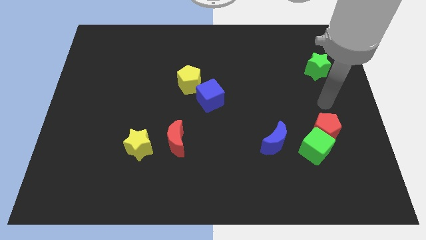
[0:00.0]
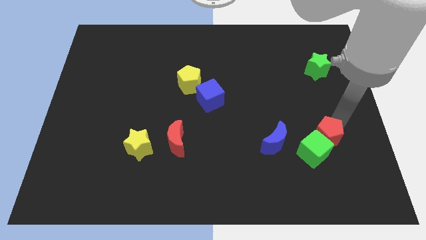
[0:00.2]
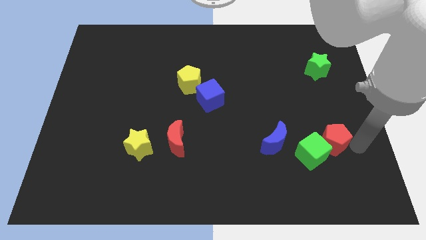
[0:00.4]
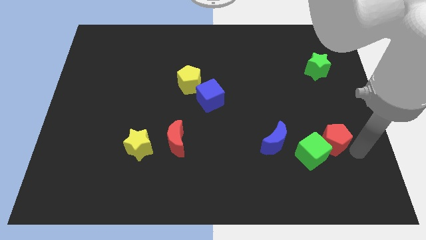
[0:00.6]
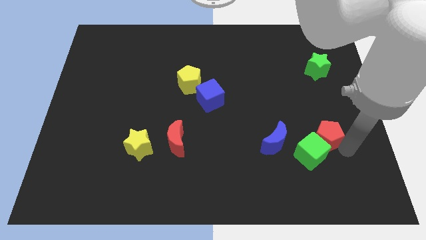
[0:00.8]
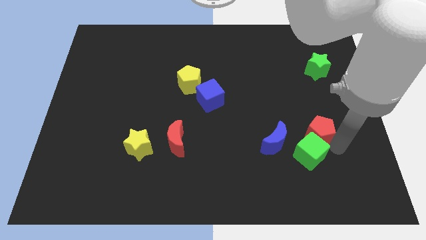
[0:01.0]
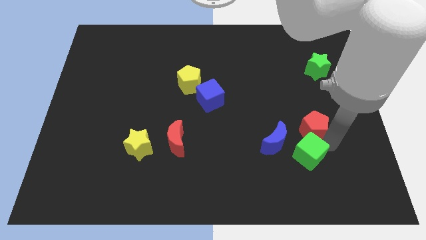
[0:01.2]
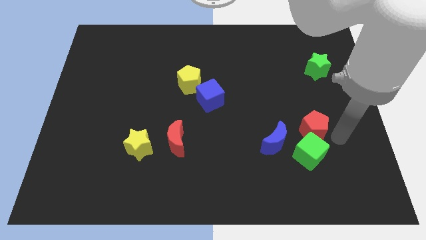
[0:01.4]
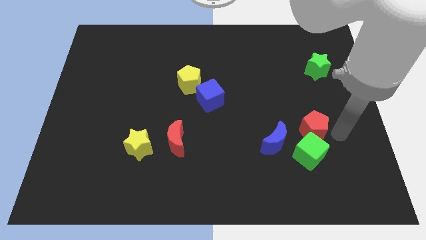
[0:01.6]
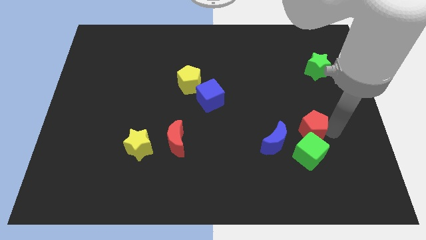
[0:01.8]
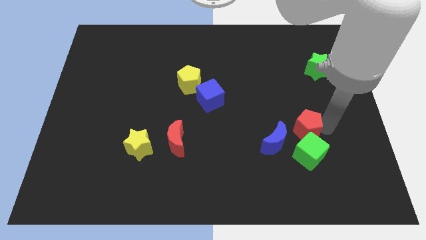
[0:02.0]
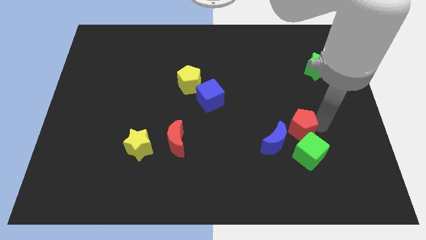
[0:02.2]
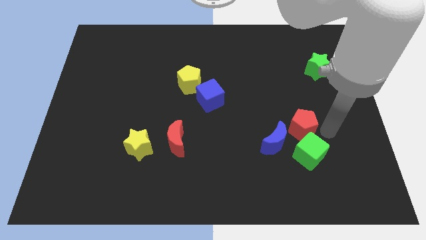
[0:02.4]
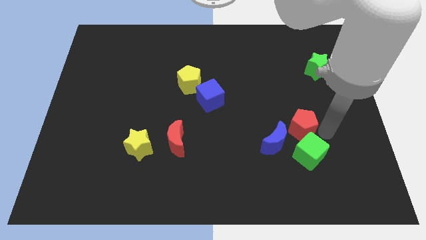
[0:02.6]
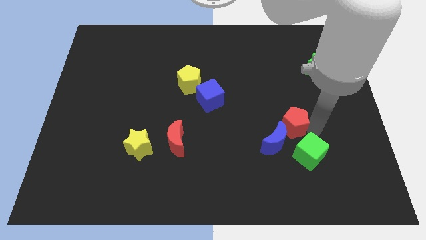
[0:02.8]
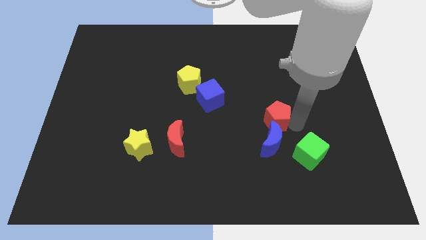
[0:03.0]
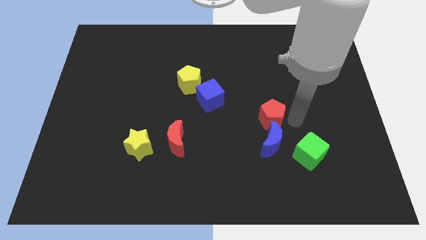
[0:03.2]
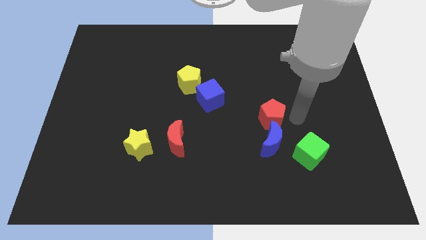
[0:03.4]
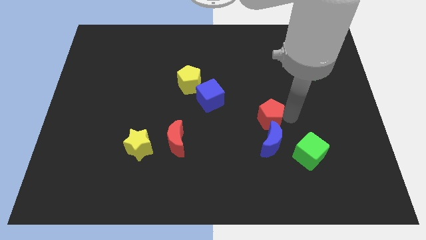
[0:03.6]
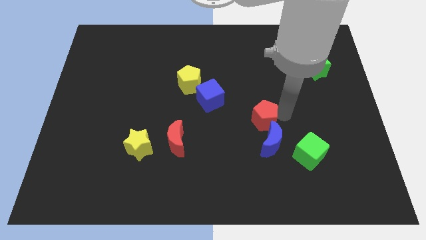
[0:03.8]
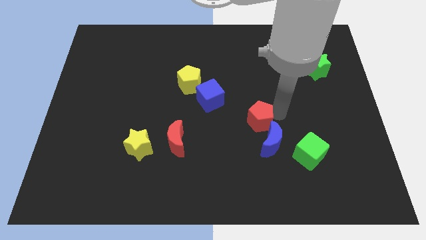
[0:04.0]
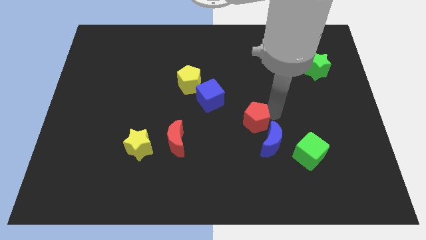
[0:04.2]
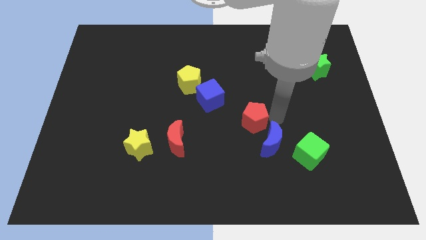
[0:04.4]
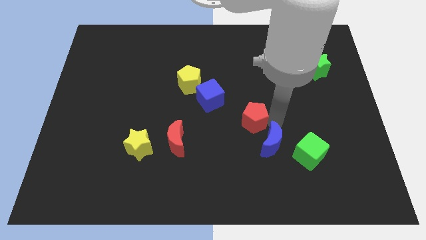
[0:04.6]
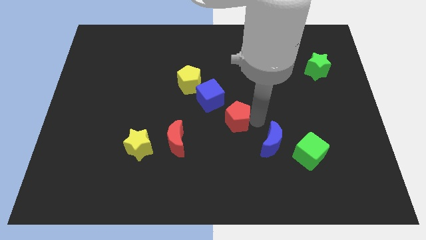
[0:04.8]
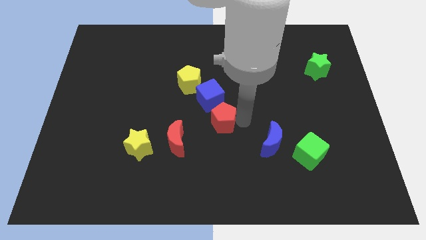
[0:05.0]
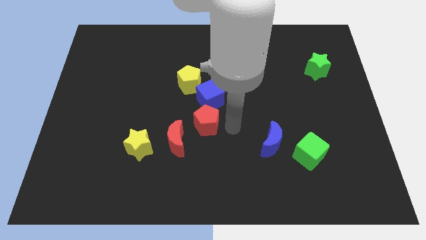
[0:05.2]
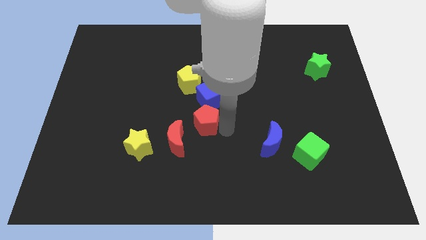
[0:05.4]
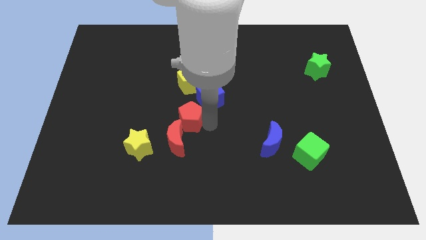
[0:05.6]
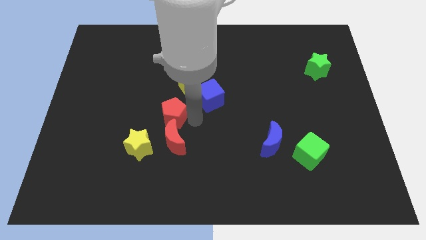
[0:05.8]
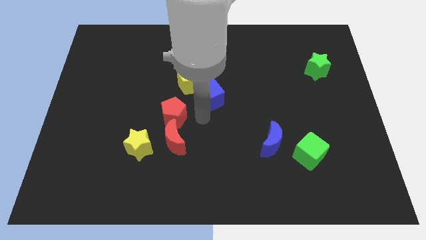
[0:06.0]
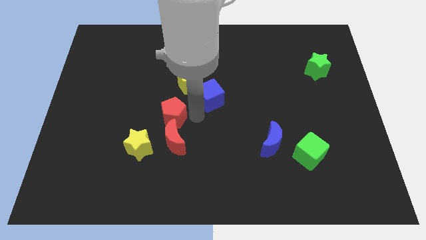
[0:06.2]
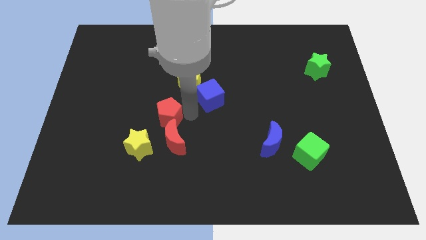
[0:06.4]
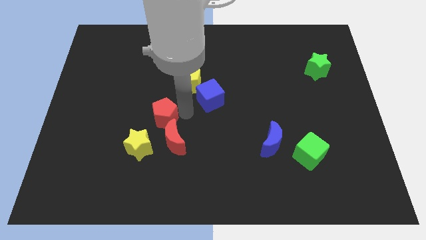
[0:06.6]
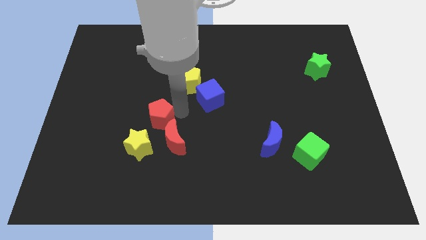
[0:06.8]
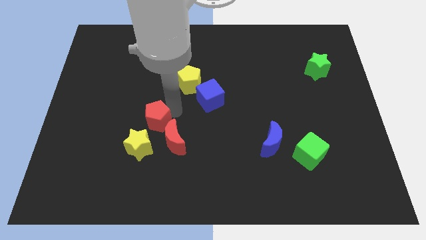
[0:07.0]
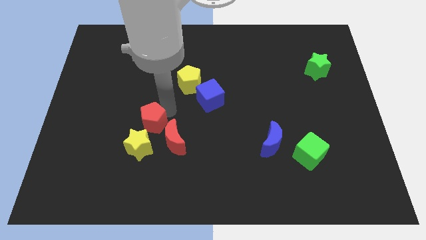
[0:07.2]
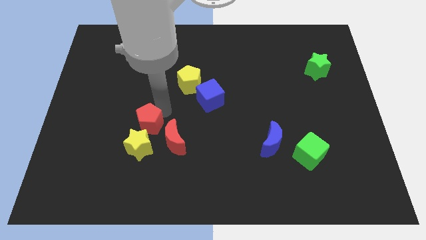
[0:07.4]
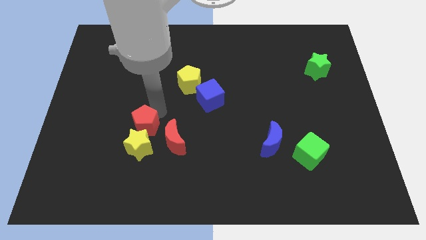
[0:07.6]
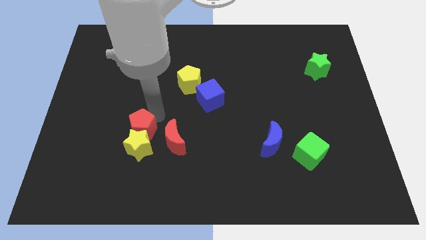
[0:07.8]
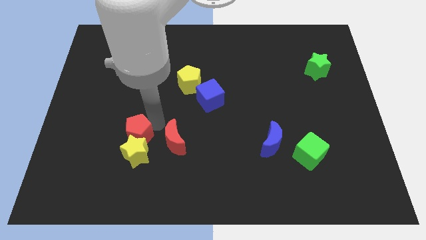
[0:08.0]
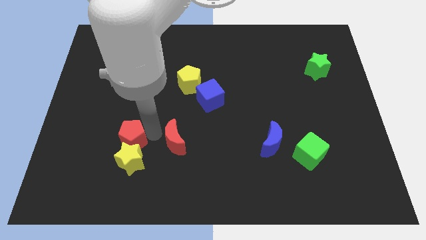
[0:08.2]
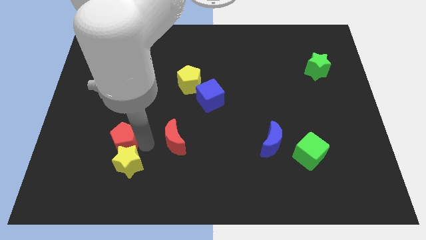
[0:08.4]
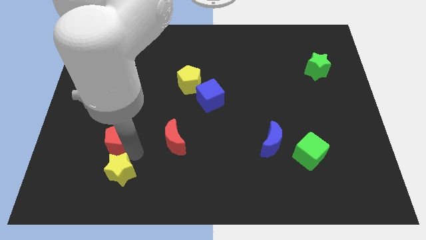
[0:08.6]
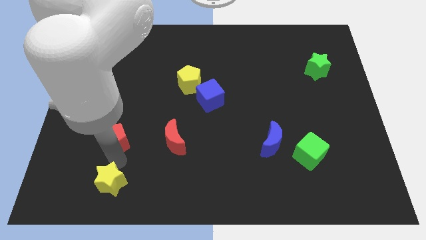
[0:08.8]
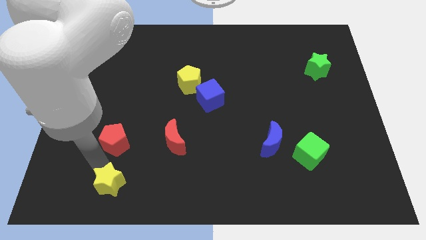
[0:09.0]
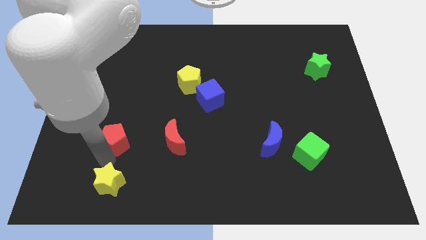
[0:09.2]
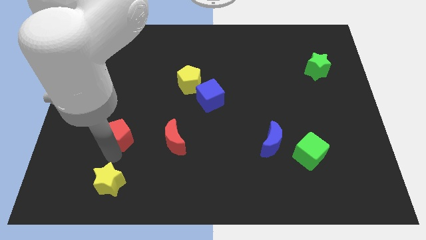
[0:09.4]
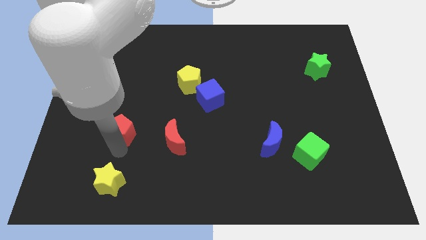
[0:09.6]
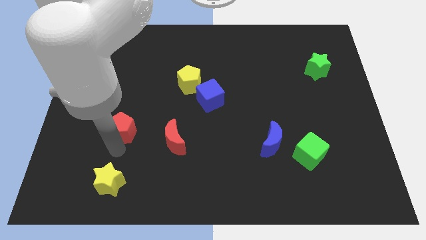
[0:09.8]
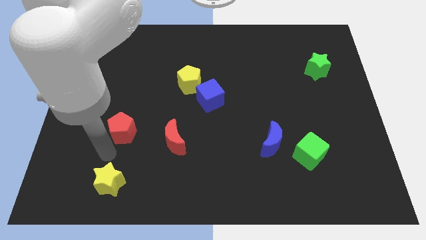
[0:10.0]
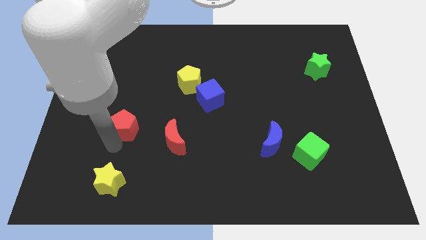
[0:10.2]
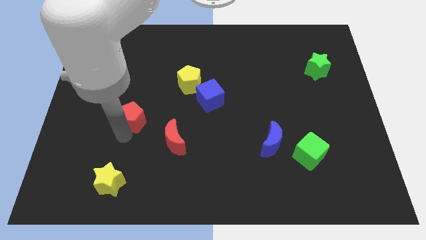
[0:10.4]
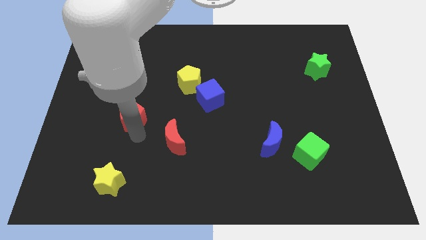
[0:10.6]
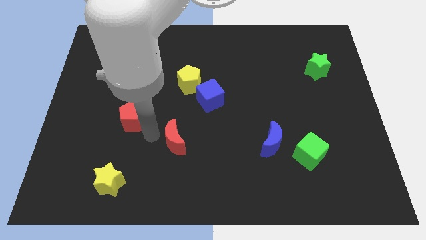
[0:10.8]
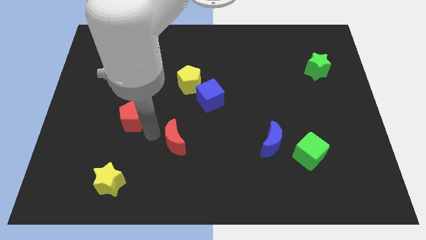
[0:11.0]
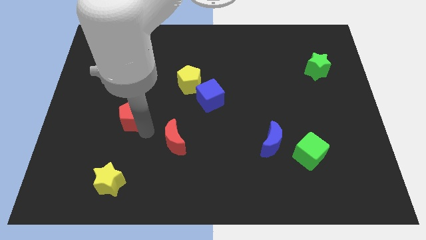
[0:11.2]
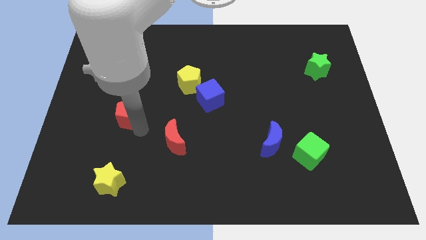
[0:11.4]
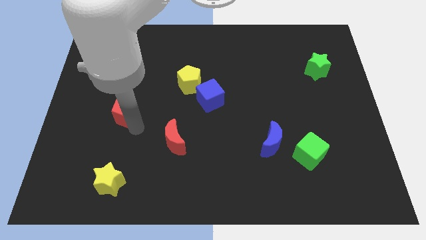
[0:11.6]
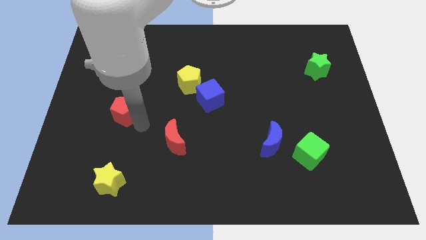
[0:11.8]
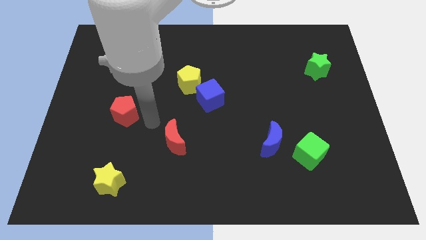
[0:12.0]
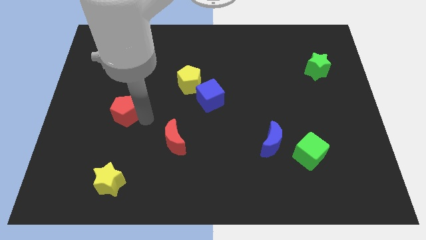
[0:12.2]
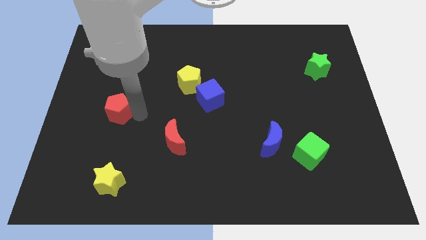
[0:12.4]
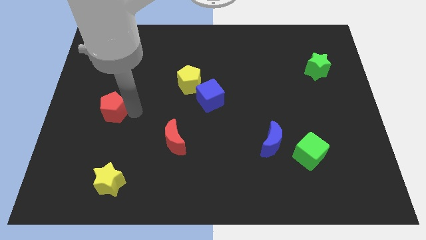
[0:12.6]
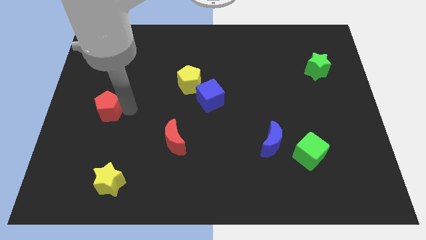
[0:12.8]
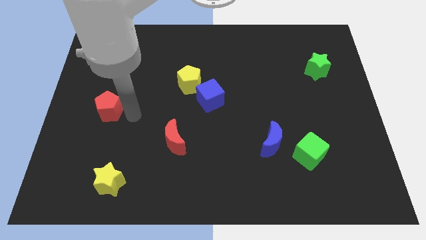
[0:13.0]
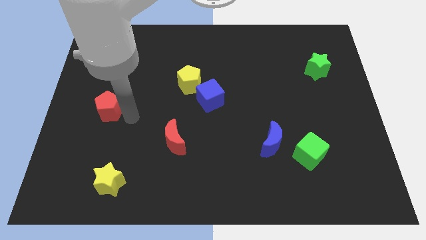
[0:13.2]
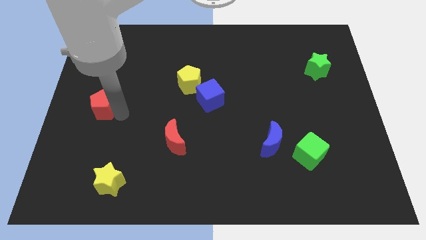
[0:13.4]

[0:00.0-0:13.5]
put the red pentagon to the center left
